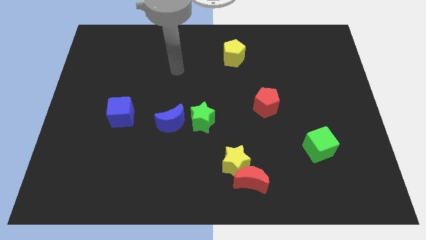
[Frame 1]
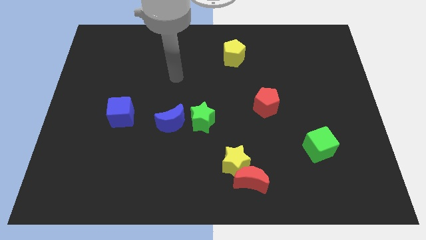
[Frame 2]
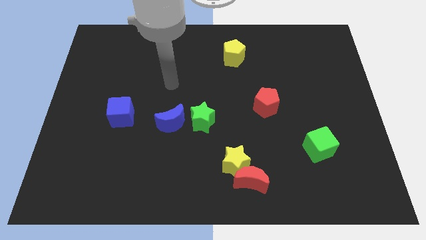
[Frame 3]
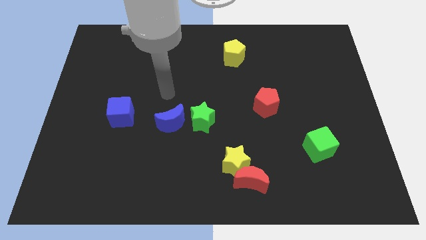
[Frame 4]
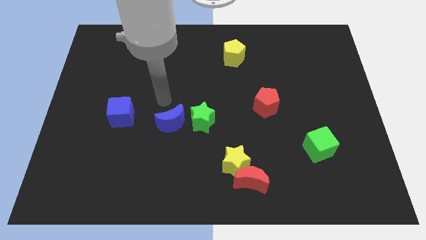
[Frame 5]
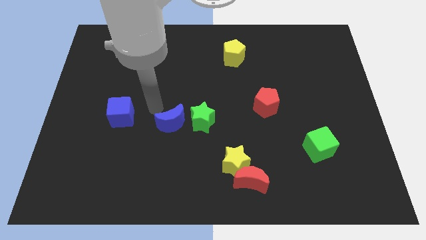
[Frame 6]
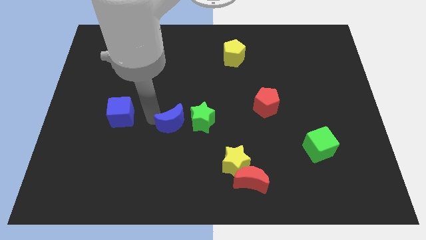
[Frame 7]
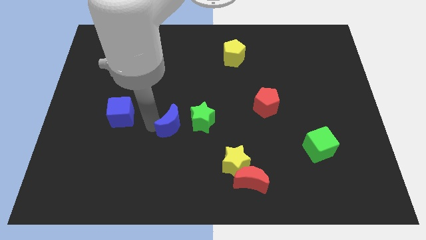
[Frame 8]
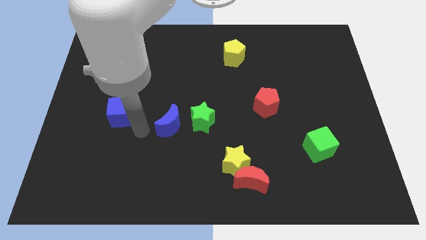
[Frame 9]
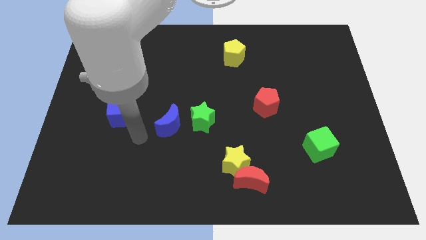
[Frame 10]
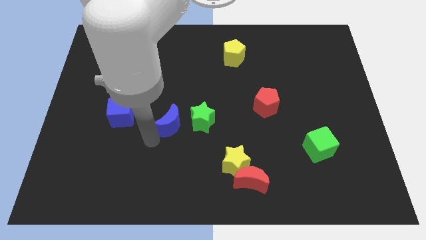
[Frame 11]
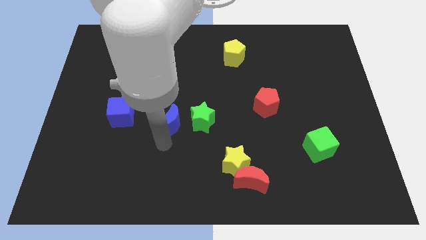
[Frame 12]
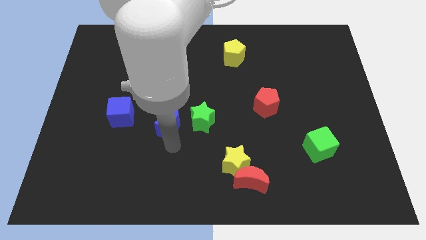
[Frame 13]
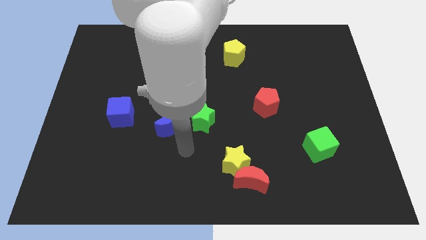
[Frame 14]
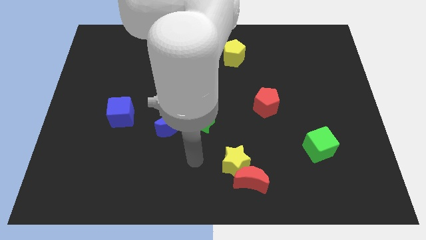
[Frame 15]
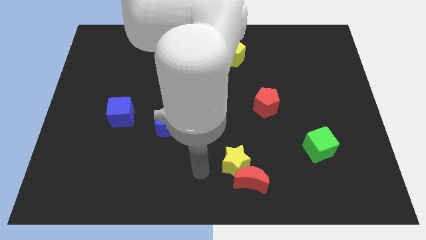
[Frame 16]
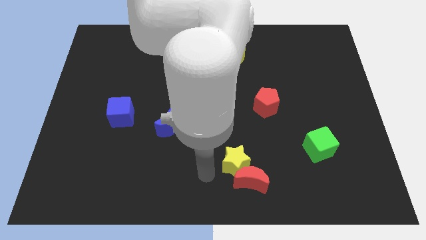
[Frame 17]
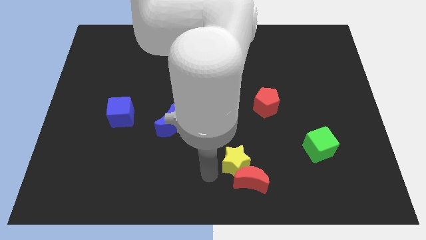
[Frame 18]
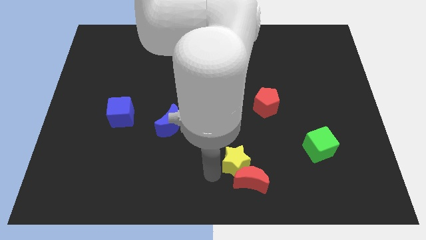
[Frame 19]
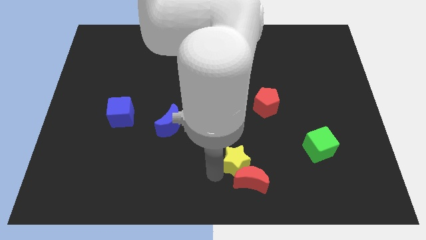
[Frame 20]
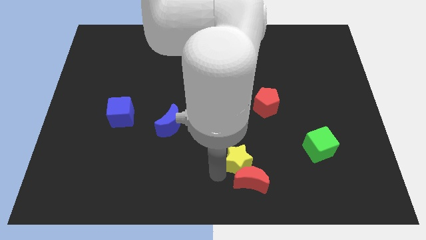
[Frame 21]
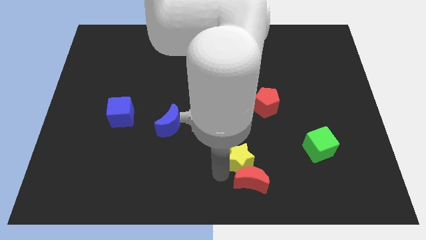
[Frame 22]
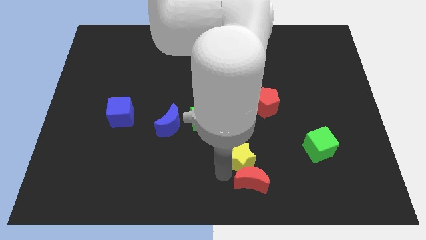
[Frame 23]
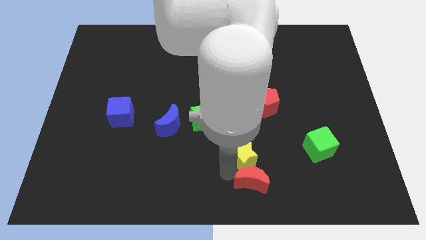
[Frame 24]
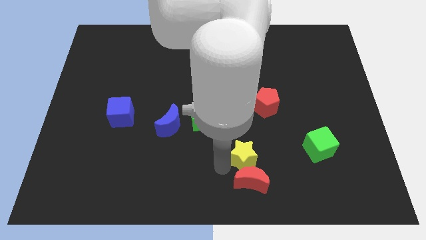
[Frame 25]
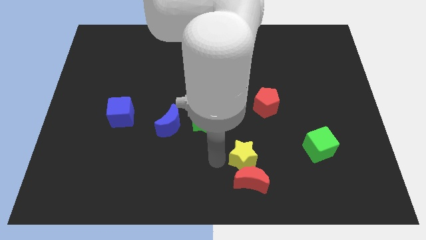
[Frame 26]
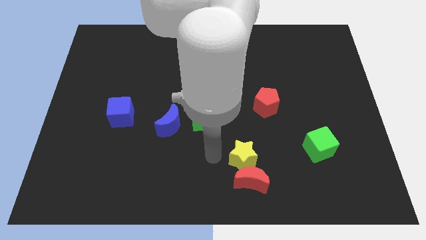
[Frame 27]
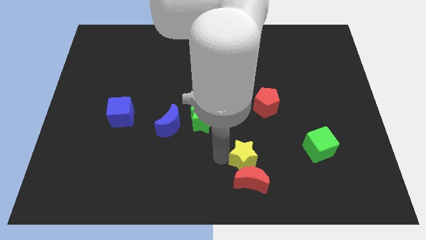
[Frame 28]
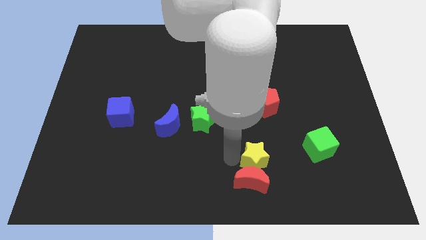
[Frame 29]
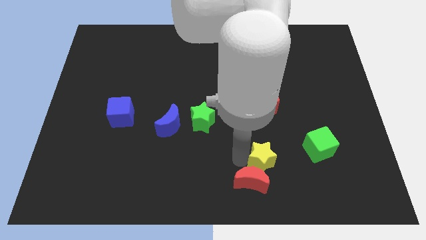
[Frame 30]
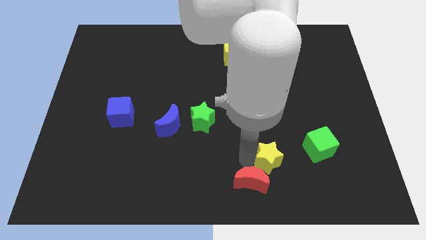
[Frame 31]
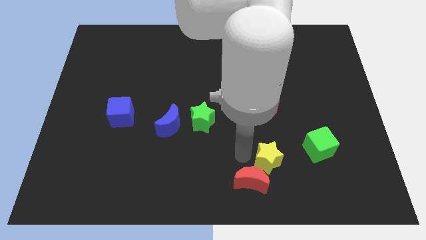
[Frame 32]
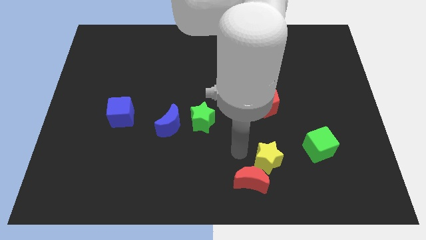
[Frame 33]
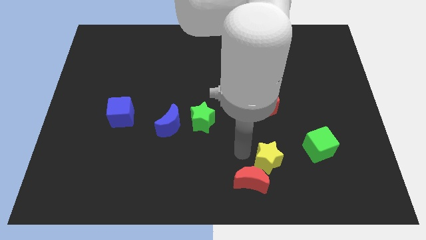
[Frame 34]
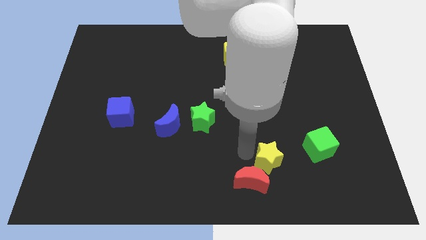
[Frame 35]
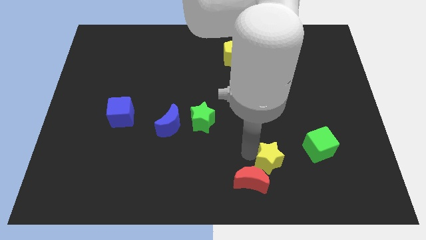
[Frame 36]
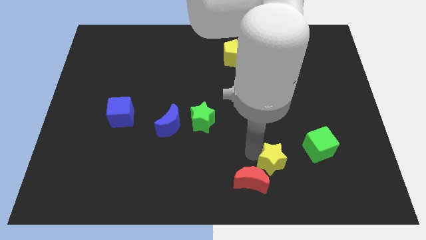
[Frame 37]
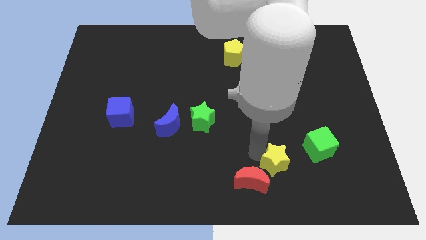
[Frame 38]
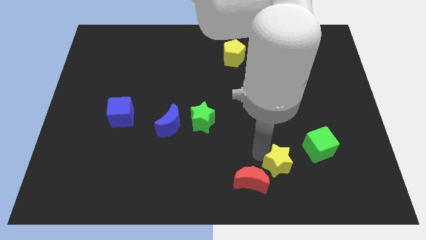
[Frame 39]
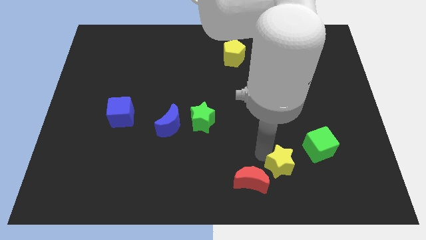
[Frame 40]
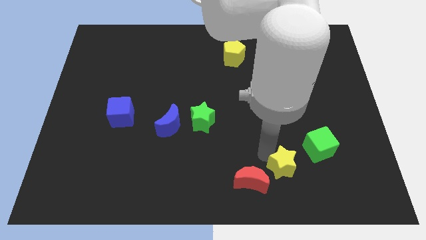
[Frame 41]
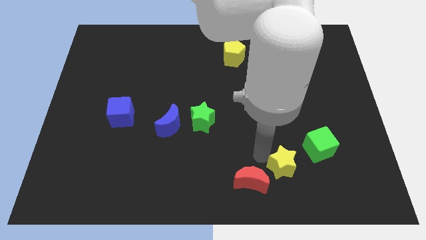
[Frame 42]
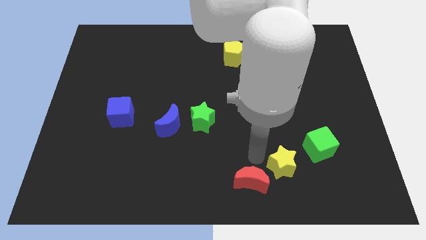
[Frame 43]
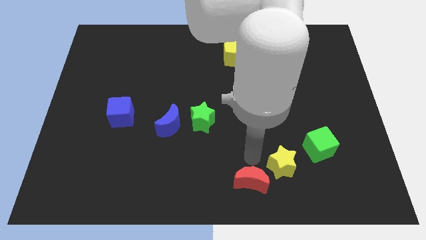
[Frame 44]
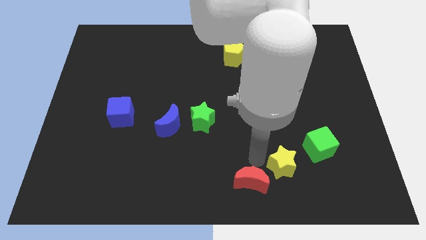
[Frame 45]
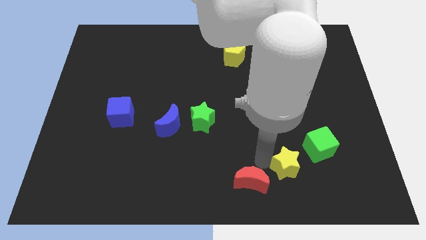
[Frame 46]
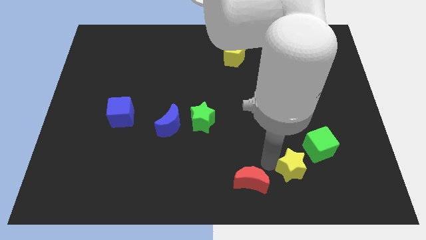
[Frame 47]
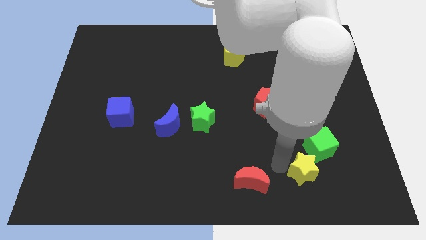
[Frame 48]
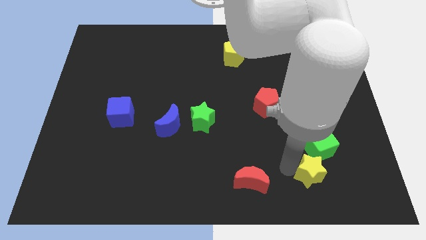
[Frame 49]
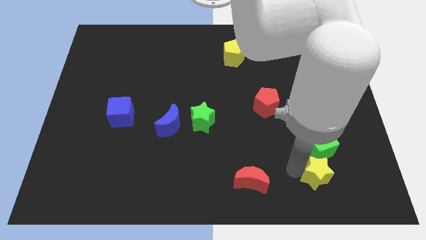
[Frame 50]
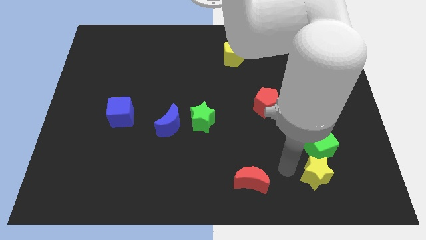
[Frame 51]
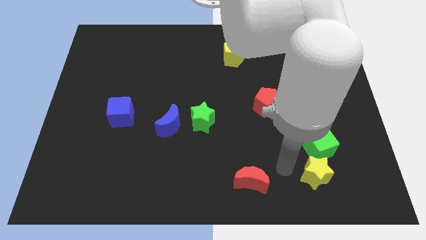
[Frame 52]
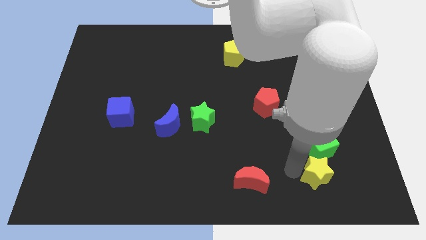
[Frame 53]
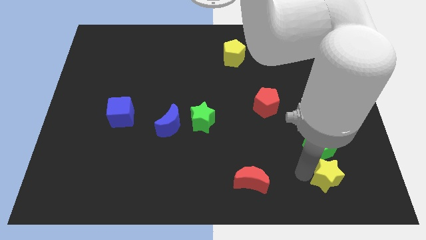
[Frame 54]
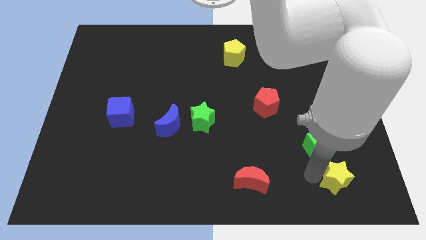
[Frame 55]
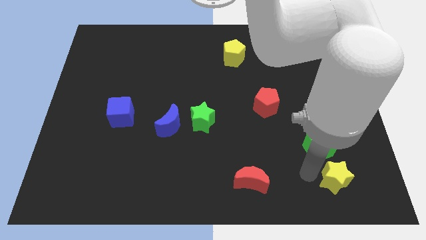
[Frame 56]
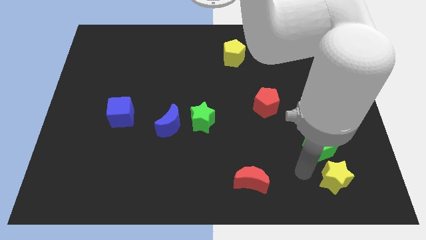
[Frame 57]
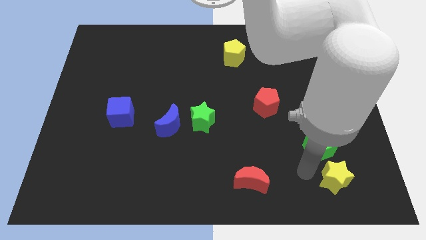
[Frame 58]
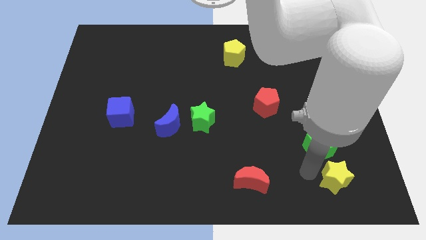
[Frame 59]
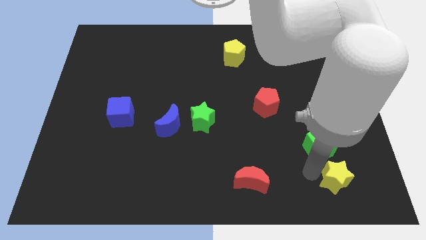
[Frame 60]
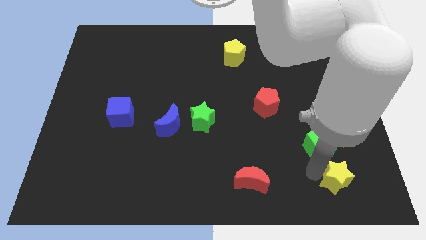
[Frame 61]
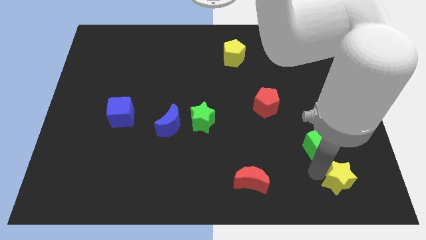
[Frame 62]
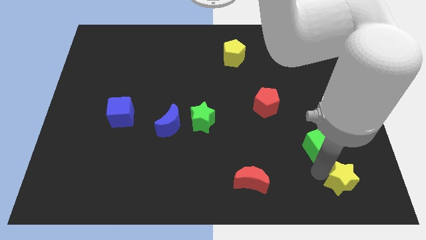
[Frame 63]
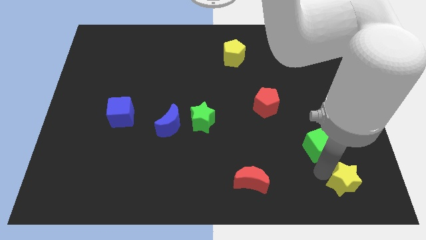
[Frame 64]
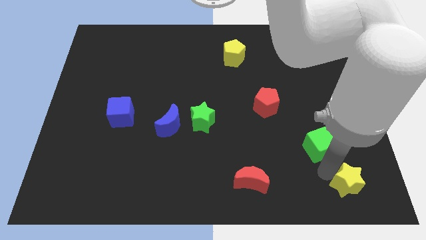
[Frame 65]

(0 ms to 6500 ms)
put the yellow star to the lower right corner
